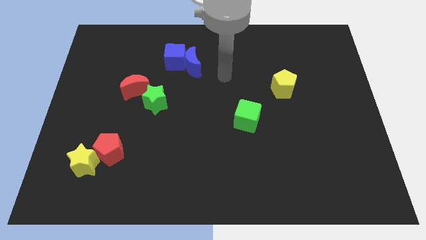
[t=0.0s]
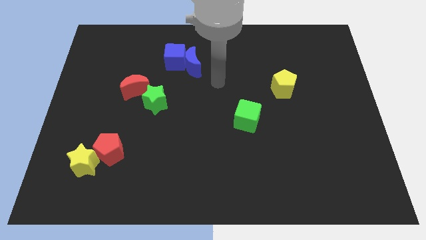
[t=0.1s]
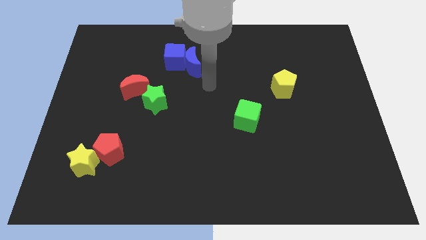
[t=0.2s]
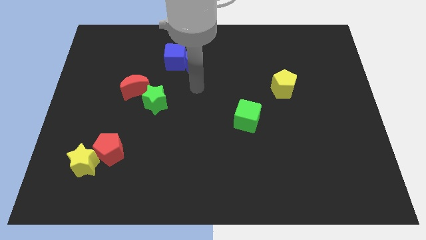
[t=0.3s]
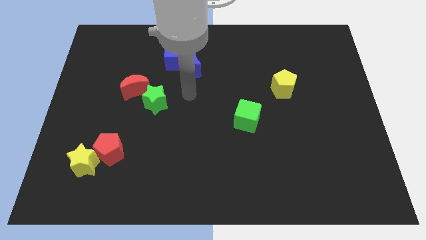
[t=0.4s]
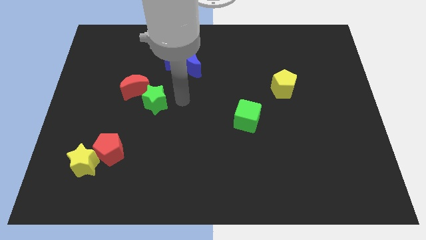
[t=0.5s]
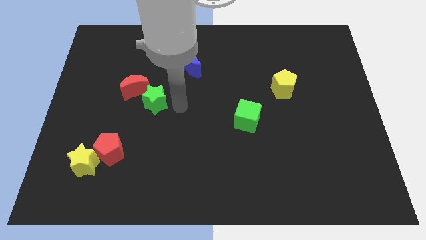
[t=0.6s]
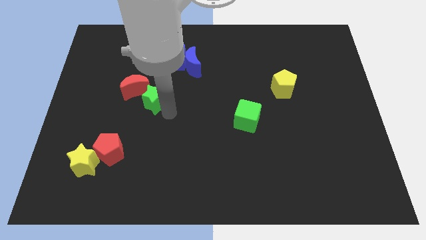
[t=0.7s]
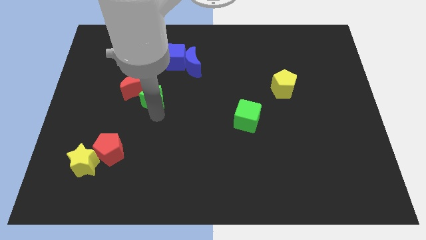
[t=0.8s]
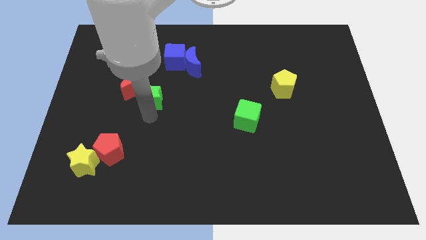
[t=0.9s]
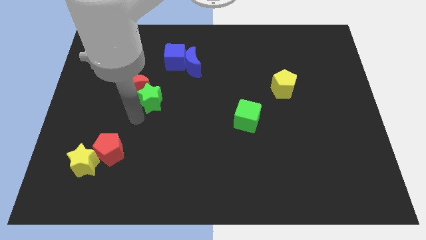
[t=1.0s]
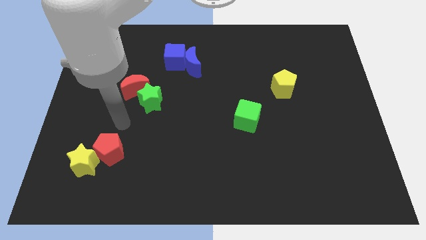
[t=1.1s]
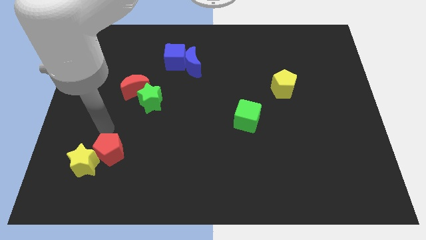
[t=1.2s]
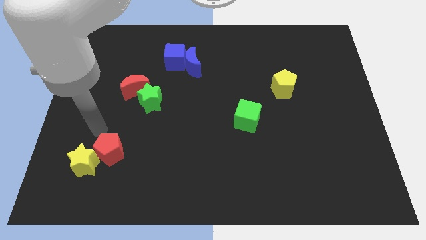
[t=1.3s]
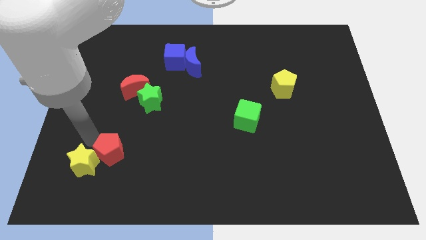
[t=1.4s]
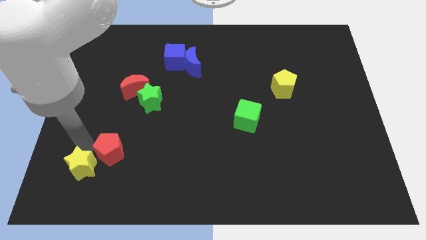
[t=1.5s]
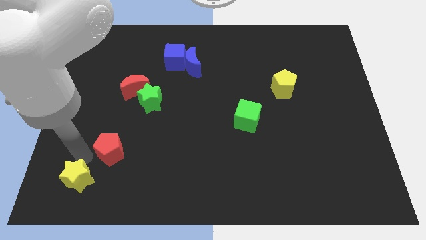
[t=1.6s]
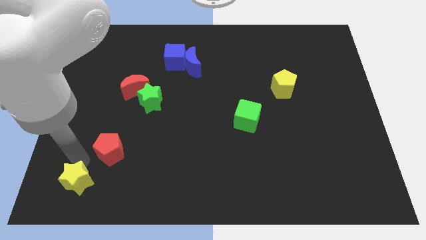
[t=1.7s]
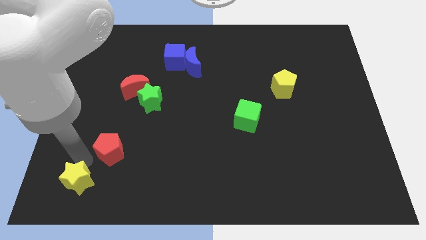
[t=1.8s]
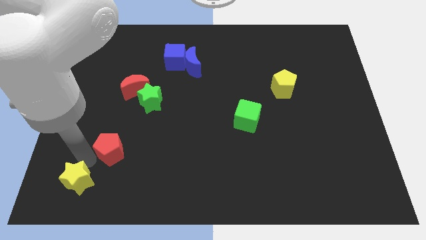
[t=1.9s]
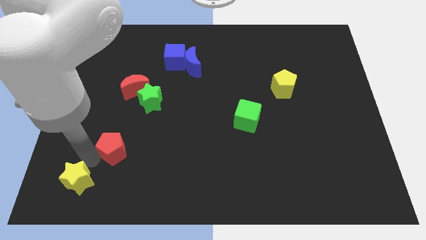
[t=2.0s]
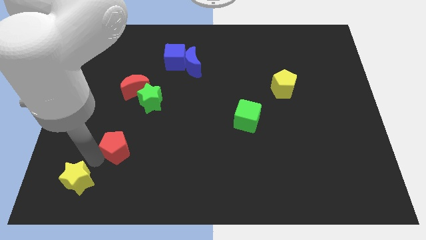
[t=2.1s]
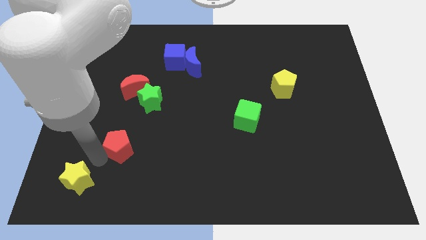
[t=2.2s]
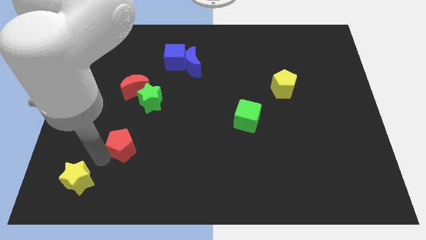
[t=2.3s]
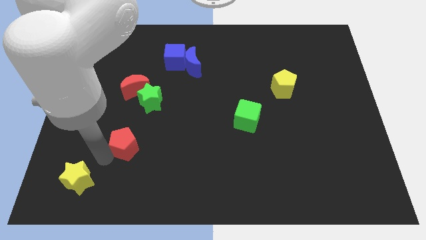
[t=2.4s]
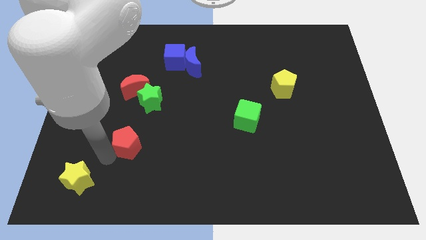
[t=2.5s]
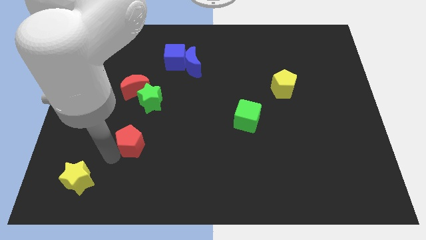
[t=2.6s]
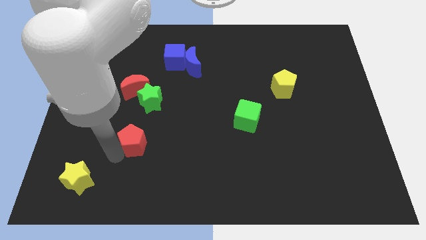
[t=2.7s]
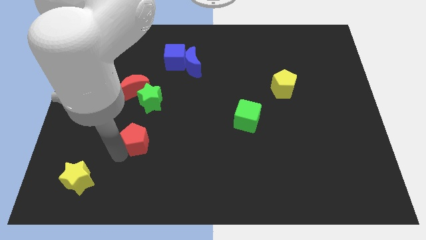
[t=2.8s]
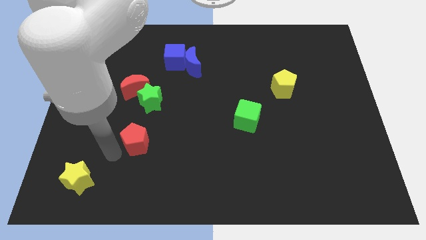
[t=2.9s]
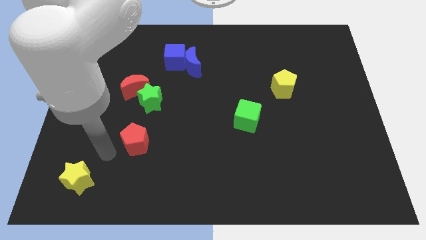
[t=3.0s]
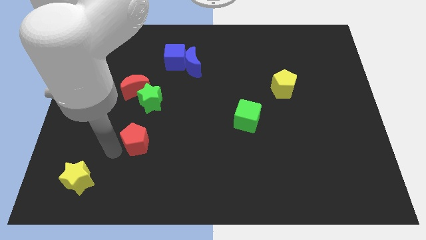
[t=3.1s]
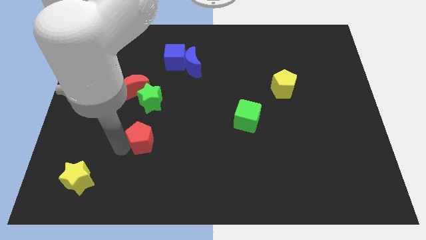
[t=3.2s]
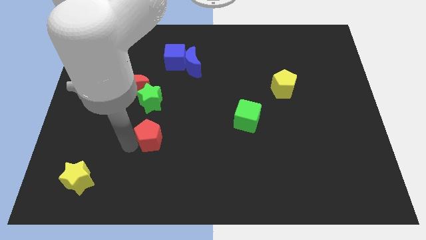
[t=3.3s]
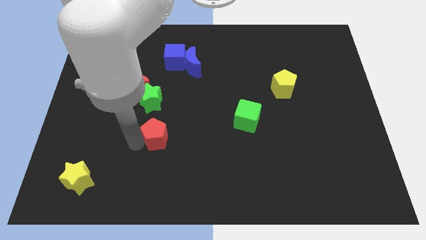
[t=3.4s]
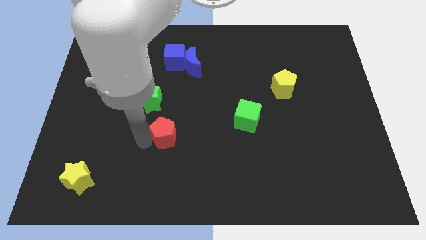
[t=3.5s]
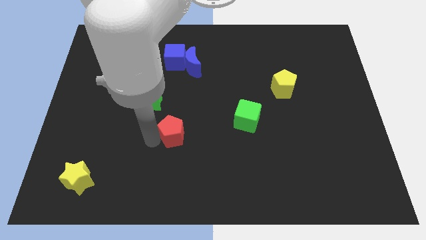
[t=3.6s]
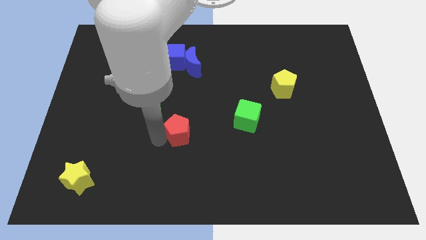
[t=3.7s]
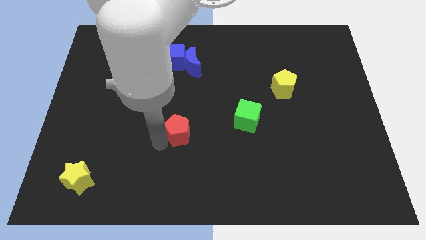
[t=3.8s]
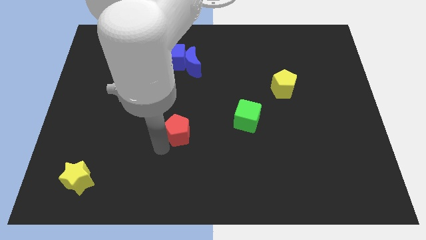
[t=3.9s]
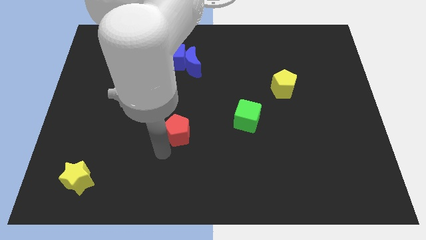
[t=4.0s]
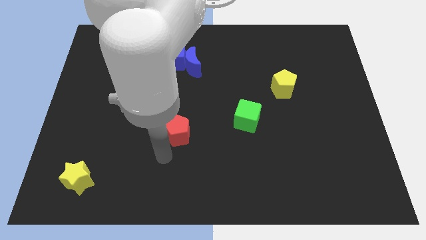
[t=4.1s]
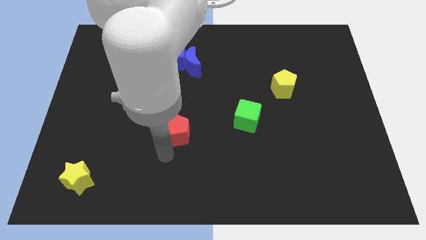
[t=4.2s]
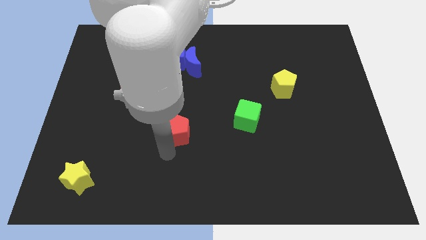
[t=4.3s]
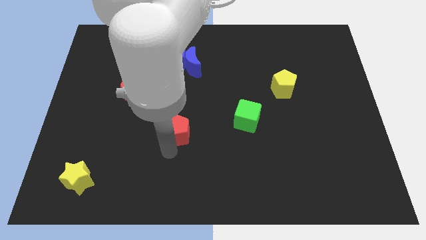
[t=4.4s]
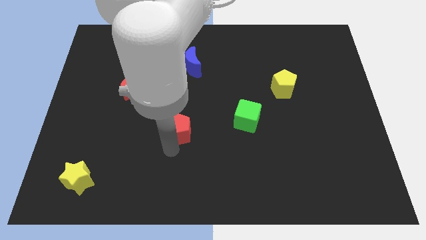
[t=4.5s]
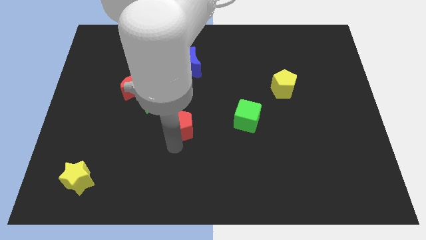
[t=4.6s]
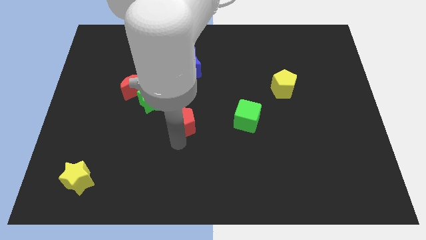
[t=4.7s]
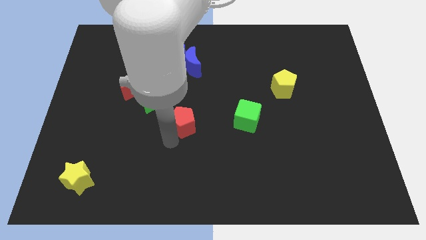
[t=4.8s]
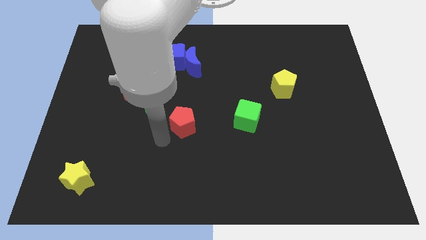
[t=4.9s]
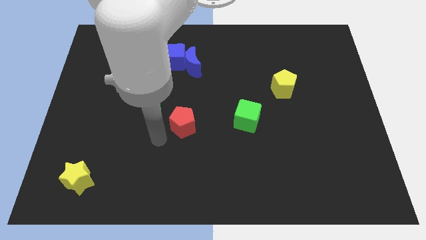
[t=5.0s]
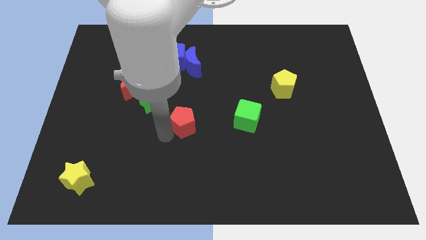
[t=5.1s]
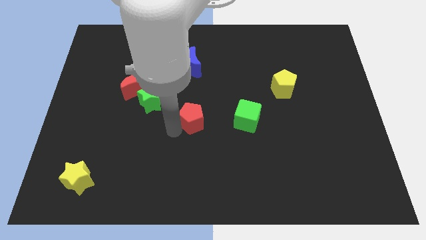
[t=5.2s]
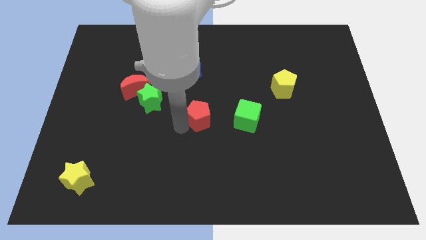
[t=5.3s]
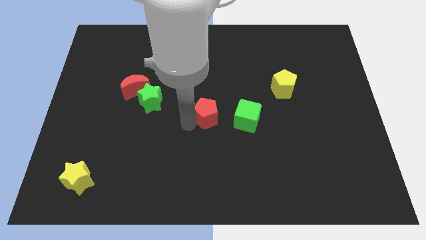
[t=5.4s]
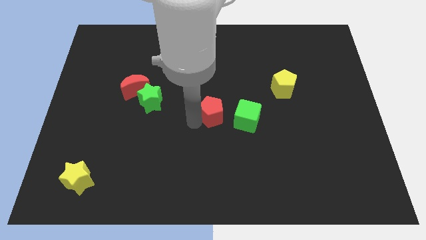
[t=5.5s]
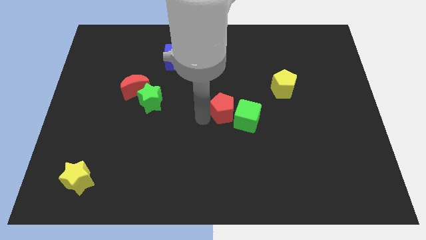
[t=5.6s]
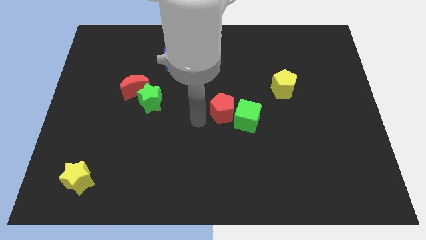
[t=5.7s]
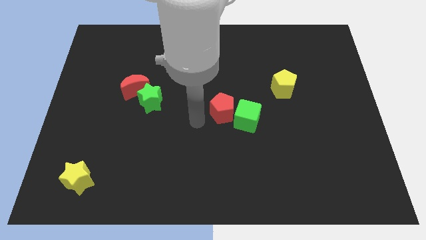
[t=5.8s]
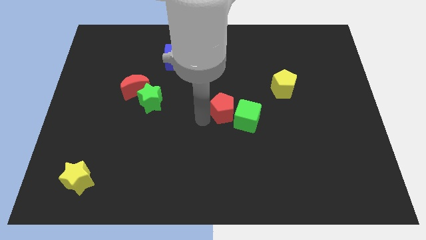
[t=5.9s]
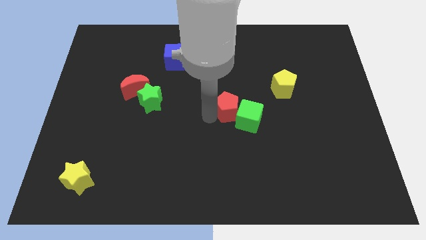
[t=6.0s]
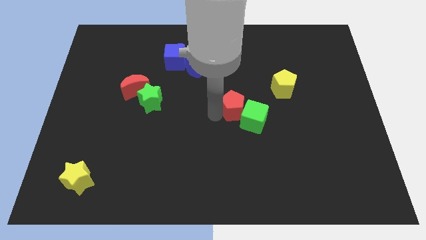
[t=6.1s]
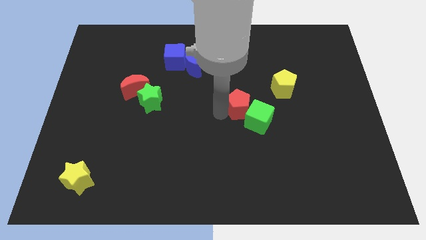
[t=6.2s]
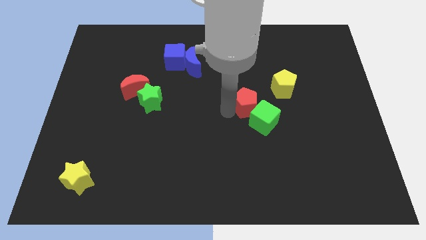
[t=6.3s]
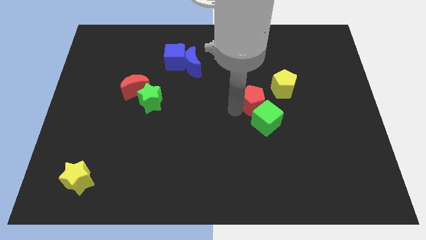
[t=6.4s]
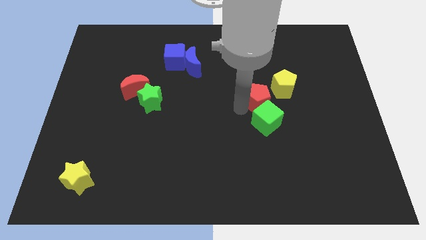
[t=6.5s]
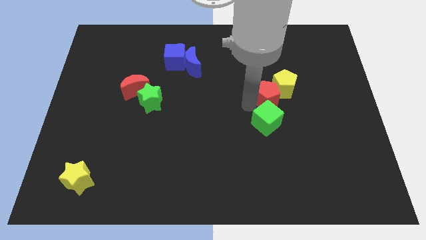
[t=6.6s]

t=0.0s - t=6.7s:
put the red pentagon towards the yellow pentagon
